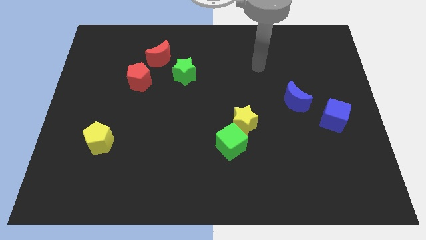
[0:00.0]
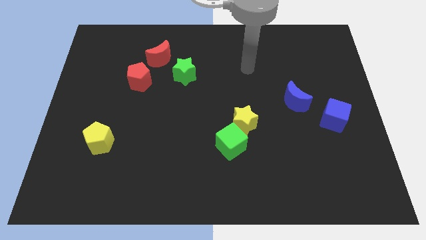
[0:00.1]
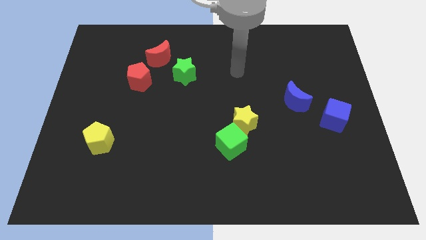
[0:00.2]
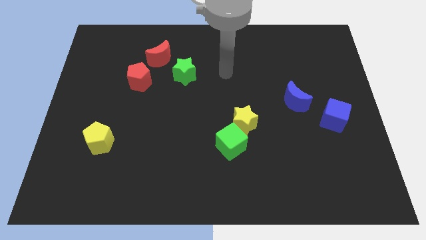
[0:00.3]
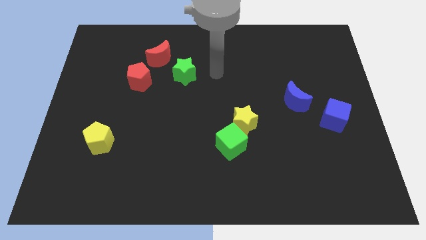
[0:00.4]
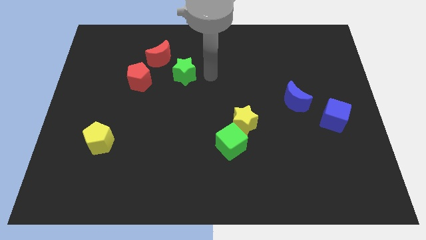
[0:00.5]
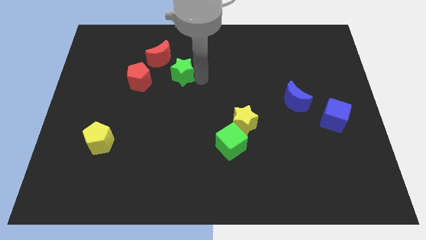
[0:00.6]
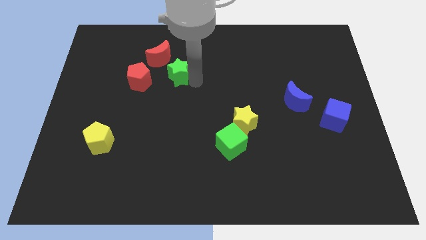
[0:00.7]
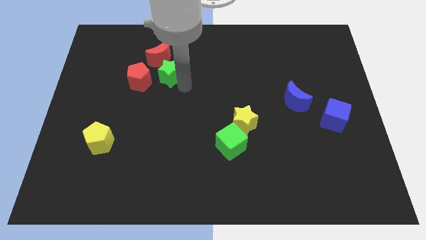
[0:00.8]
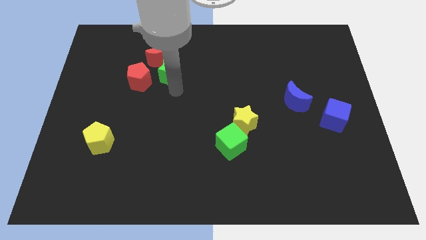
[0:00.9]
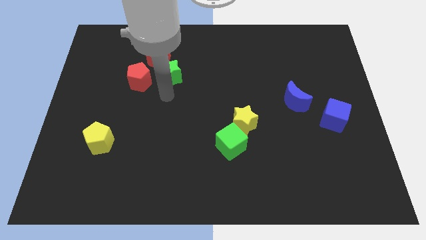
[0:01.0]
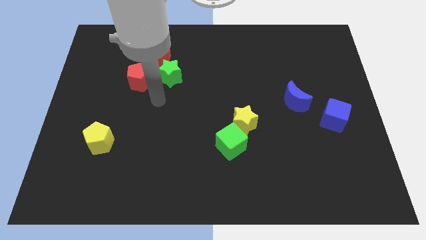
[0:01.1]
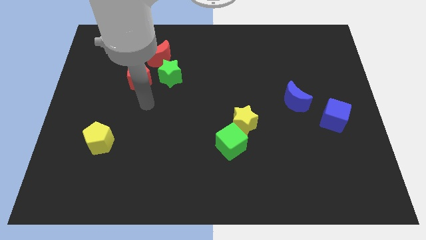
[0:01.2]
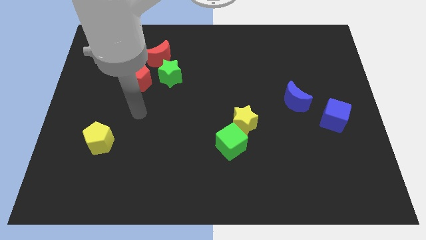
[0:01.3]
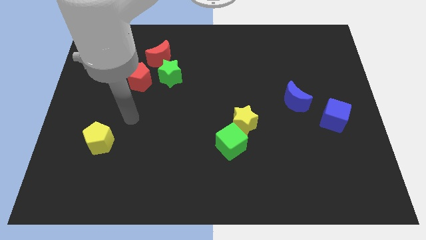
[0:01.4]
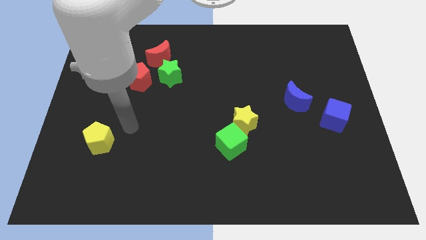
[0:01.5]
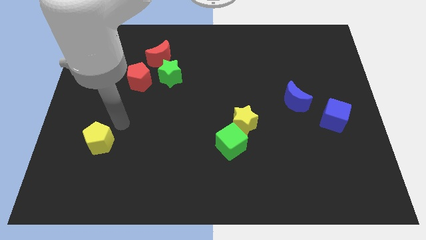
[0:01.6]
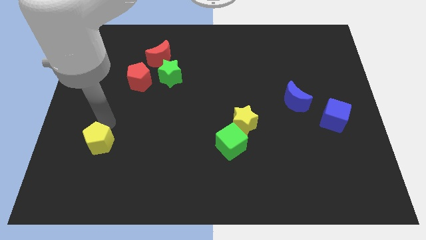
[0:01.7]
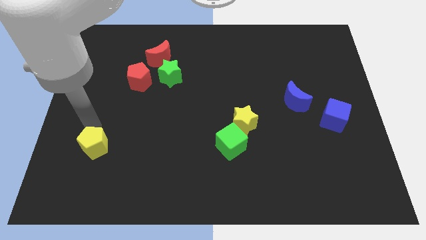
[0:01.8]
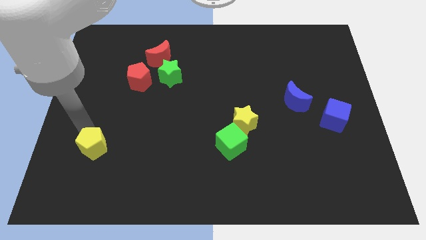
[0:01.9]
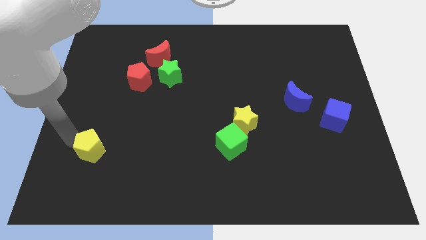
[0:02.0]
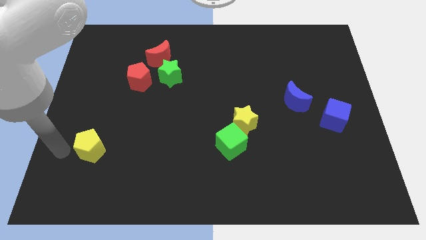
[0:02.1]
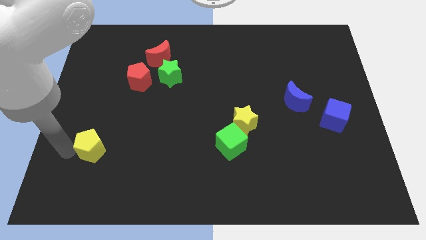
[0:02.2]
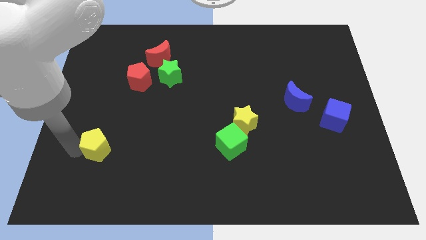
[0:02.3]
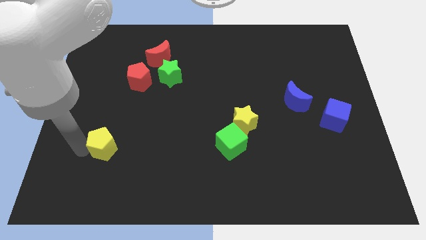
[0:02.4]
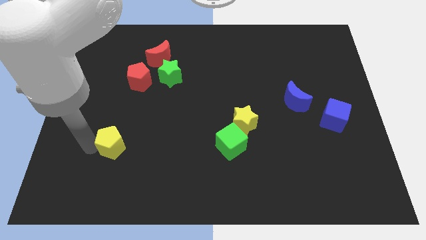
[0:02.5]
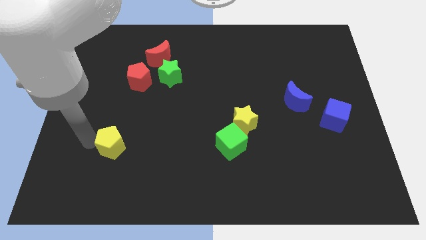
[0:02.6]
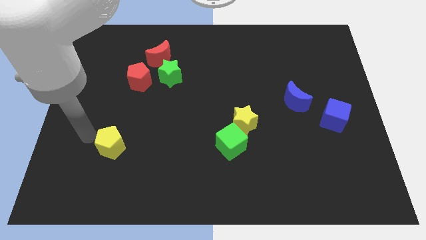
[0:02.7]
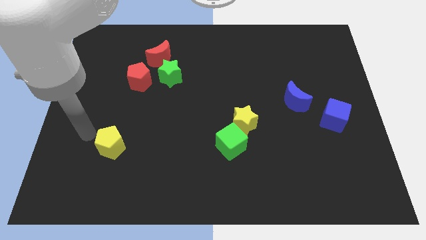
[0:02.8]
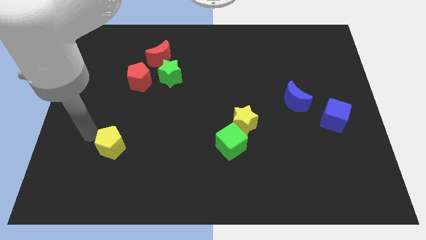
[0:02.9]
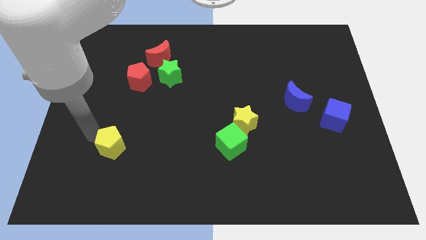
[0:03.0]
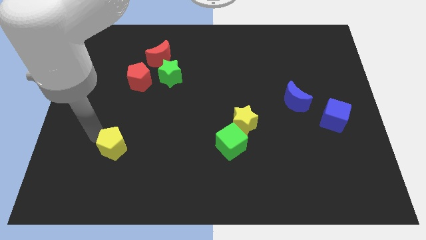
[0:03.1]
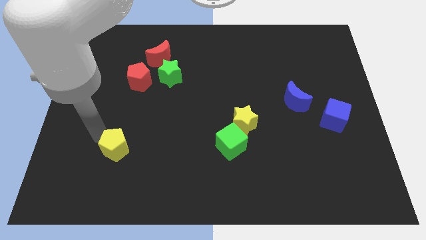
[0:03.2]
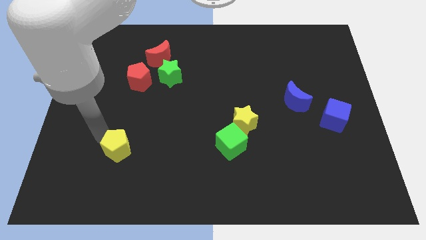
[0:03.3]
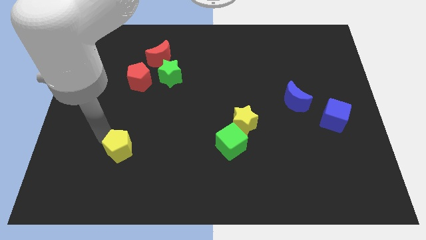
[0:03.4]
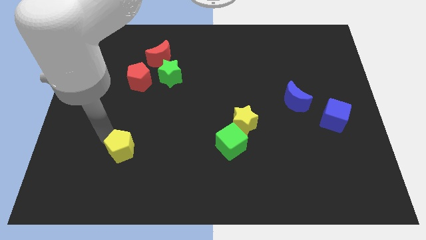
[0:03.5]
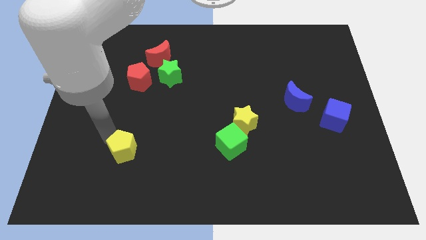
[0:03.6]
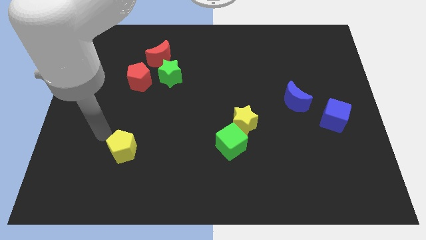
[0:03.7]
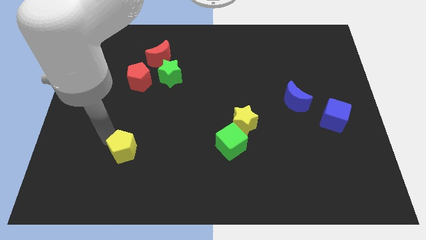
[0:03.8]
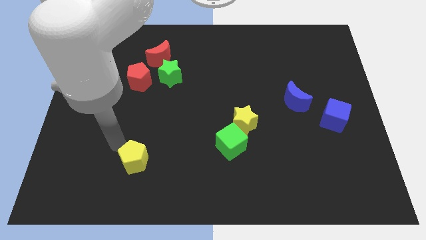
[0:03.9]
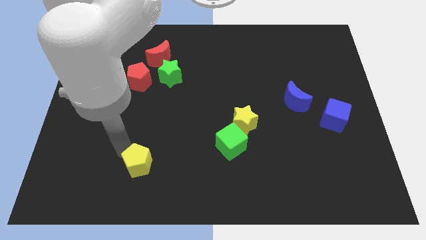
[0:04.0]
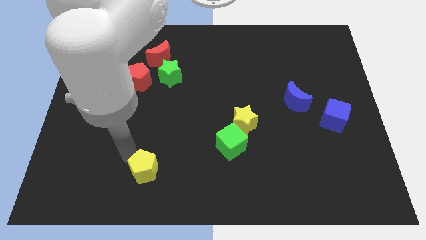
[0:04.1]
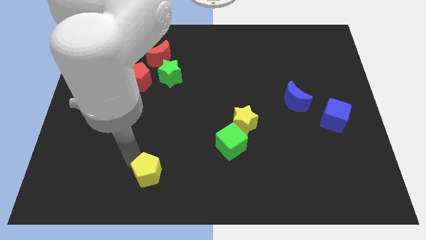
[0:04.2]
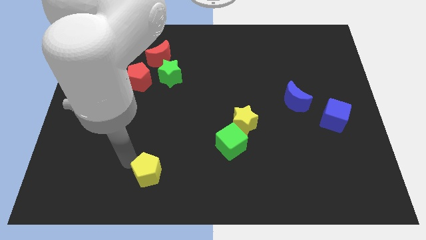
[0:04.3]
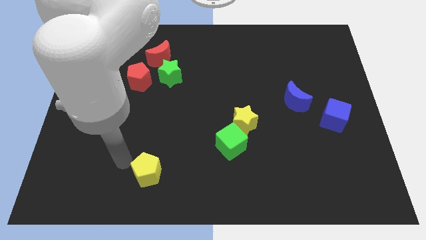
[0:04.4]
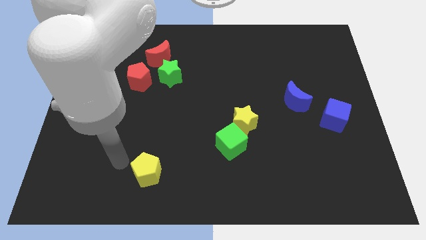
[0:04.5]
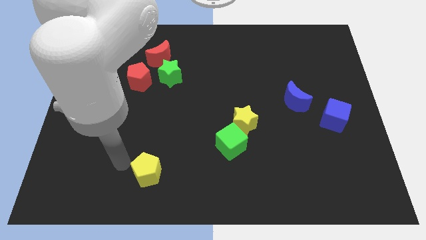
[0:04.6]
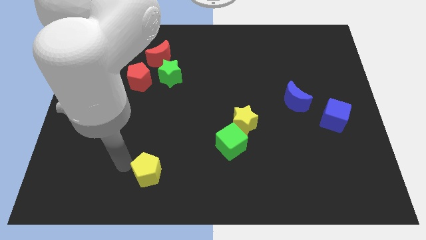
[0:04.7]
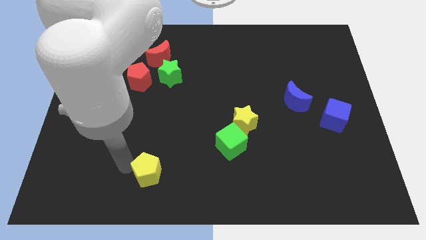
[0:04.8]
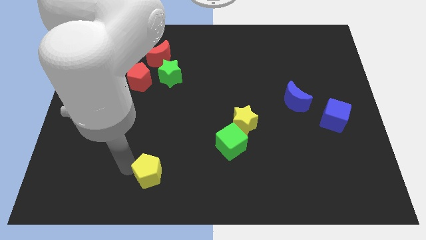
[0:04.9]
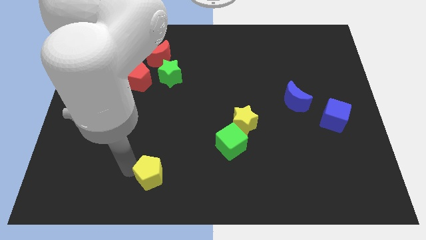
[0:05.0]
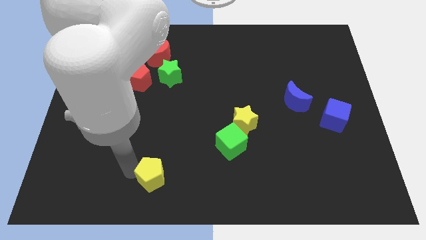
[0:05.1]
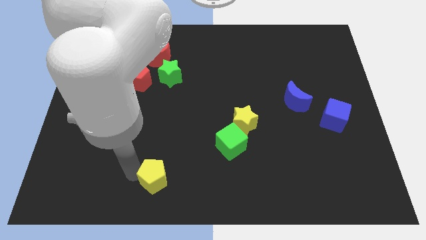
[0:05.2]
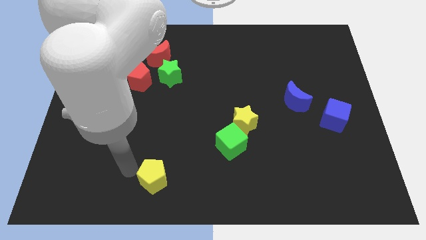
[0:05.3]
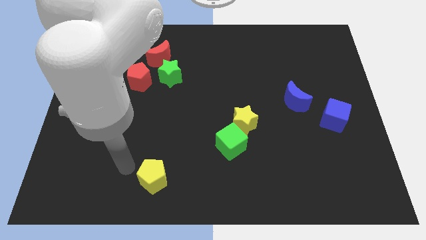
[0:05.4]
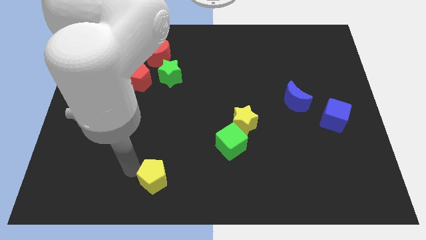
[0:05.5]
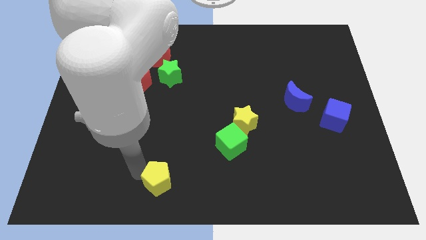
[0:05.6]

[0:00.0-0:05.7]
put the yellow pentagon to the bottom

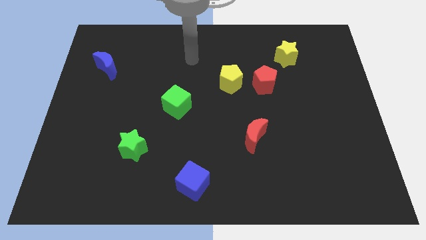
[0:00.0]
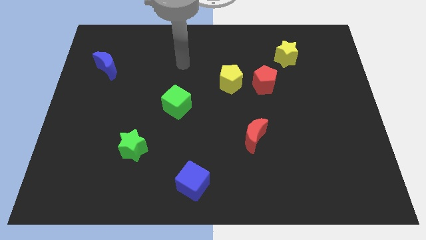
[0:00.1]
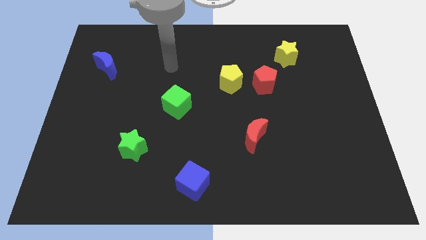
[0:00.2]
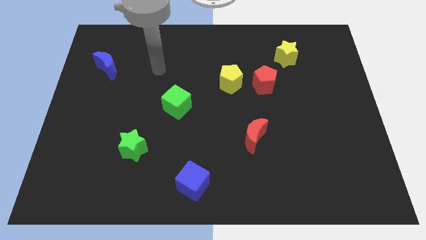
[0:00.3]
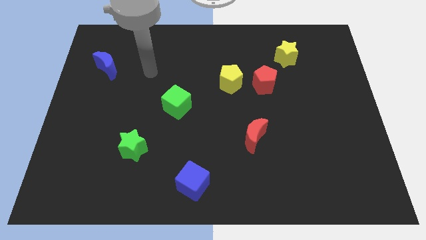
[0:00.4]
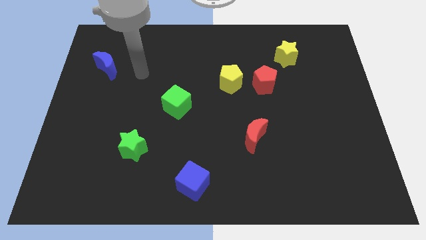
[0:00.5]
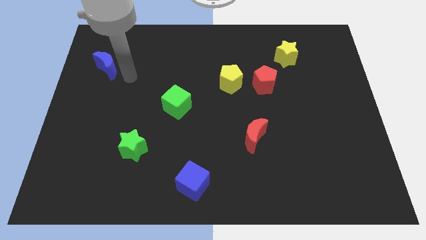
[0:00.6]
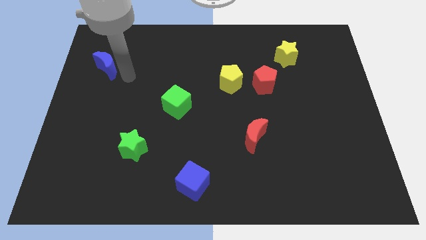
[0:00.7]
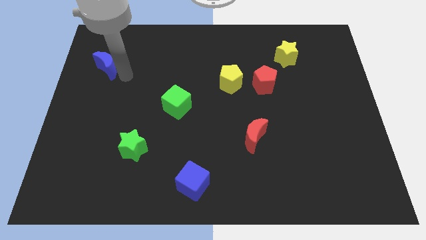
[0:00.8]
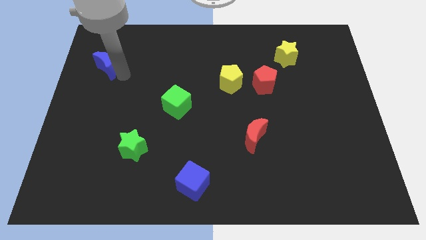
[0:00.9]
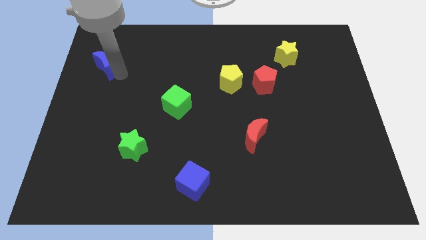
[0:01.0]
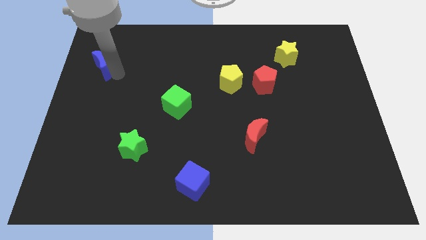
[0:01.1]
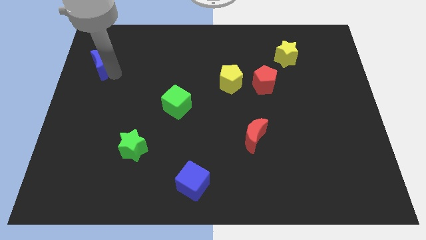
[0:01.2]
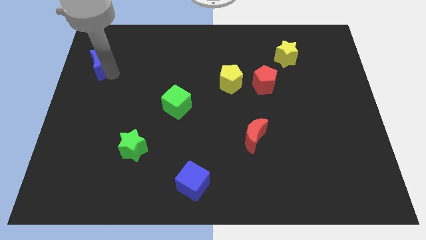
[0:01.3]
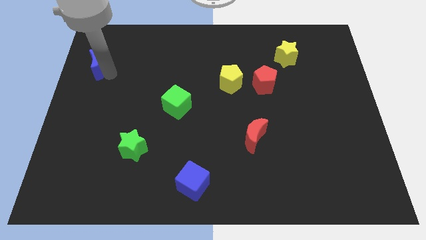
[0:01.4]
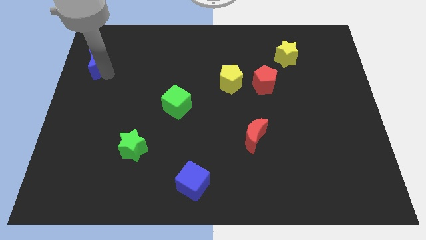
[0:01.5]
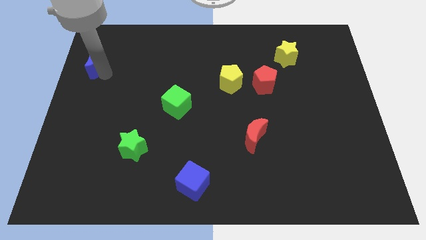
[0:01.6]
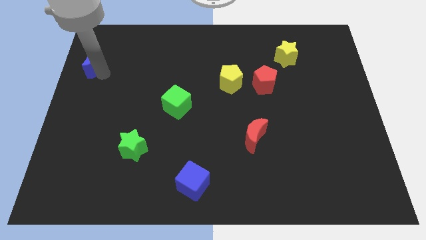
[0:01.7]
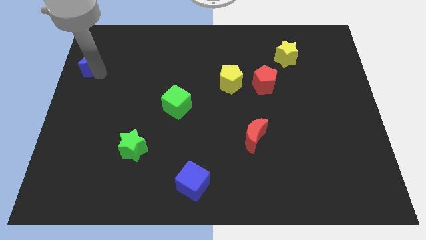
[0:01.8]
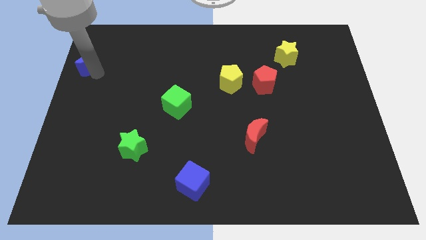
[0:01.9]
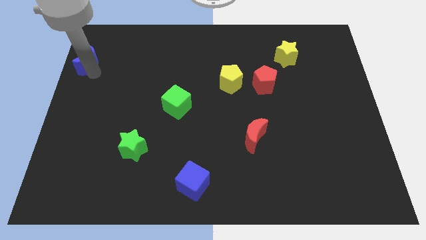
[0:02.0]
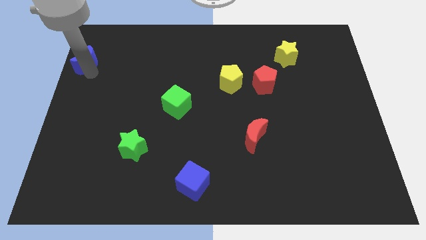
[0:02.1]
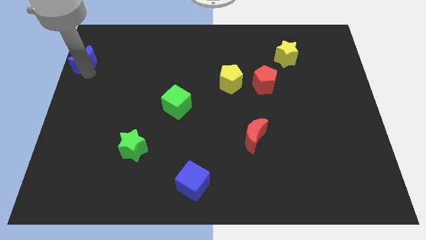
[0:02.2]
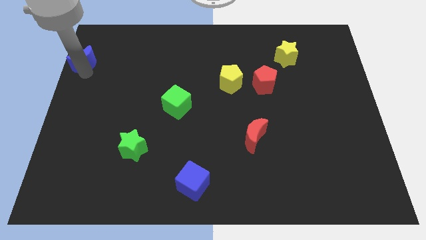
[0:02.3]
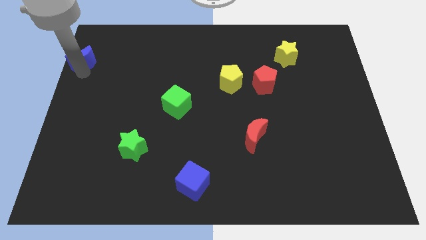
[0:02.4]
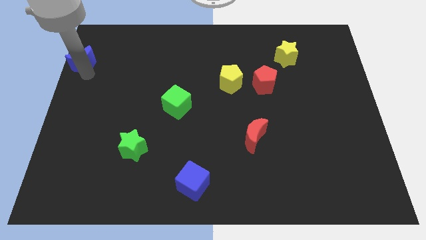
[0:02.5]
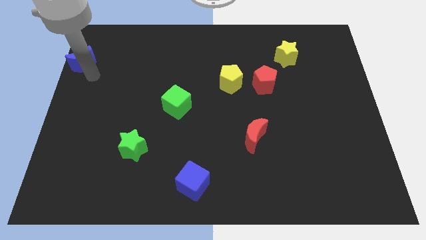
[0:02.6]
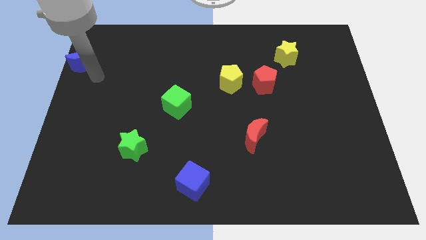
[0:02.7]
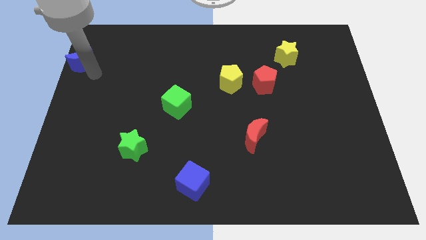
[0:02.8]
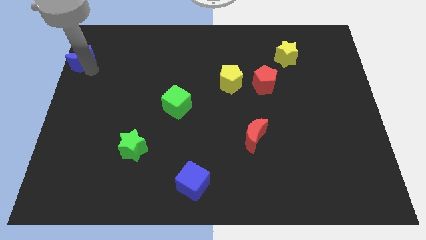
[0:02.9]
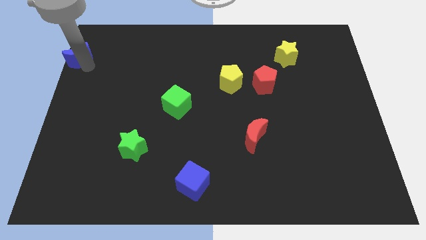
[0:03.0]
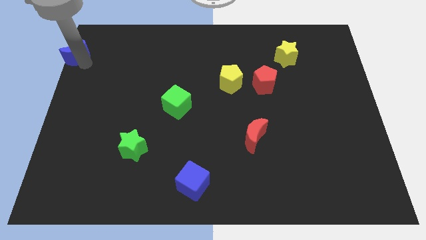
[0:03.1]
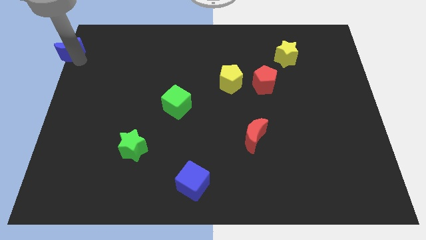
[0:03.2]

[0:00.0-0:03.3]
move the blue moon to the upper left corner
